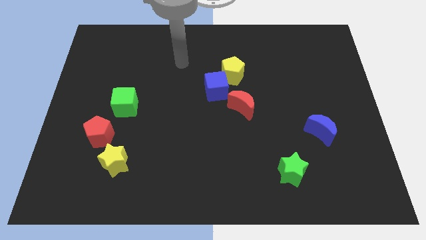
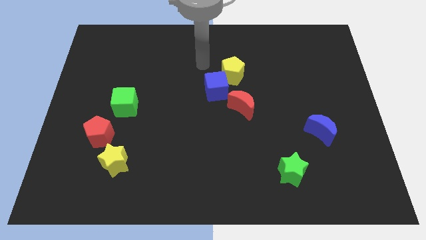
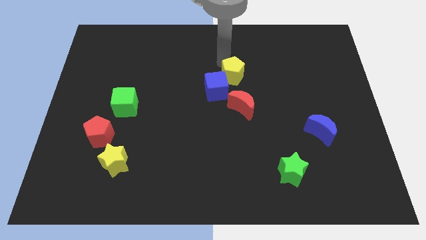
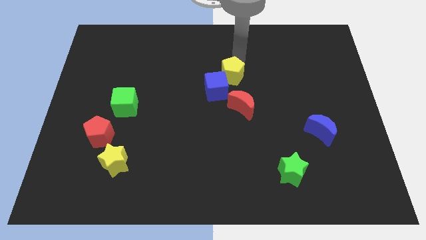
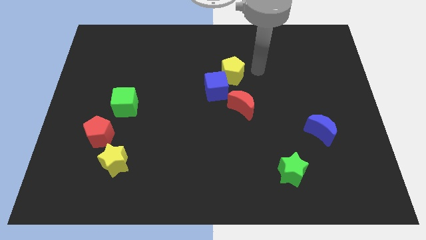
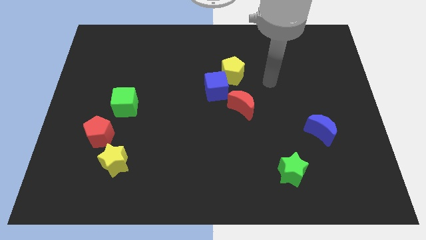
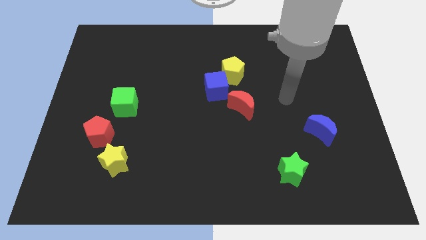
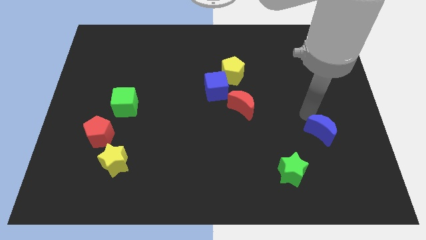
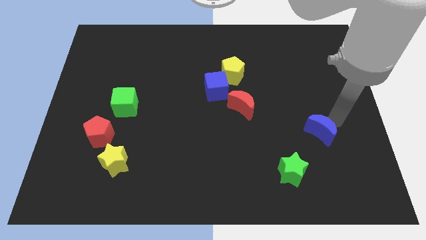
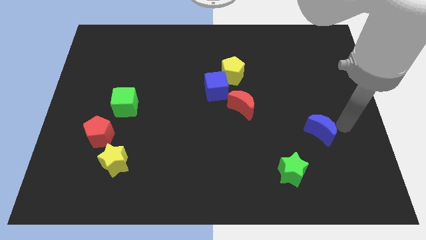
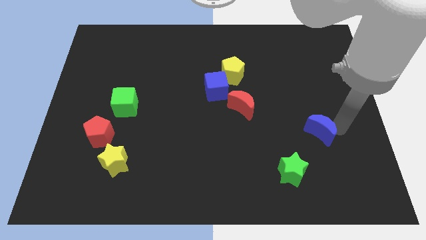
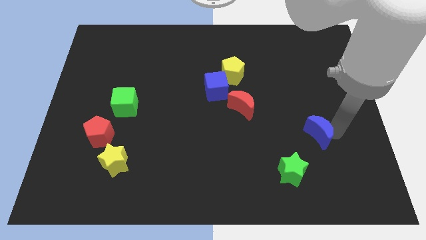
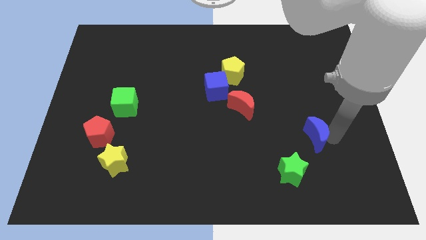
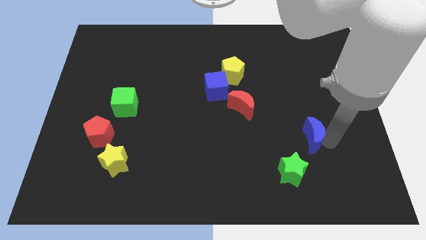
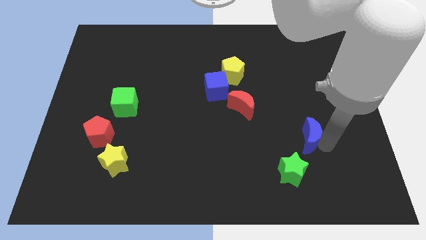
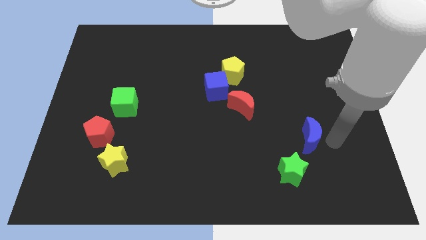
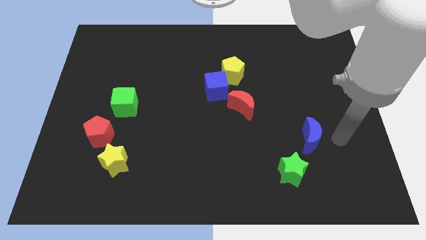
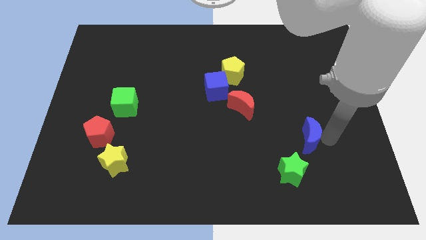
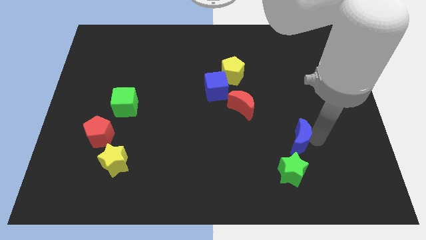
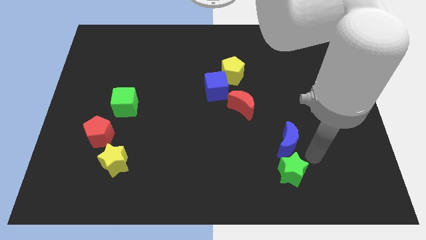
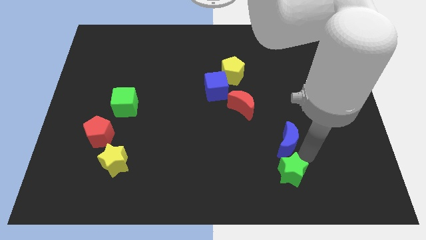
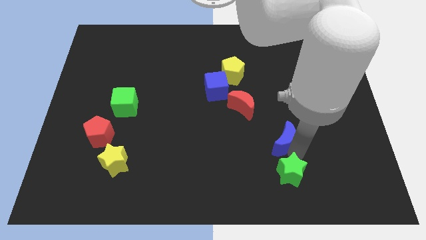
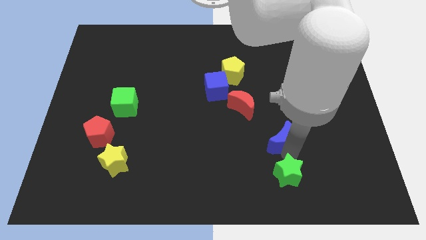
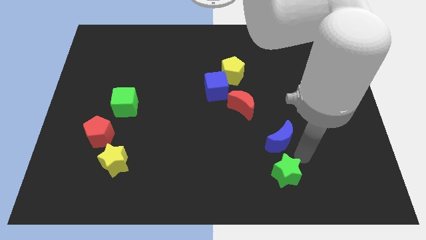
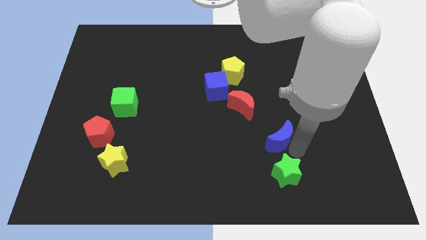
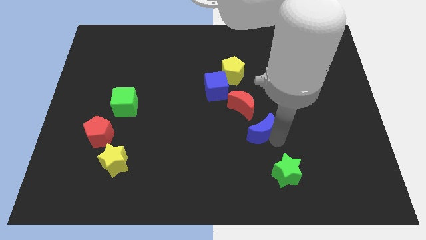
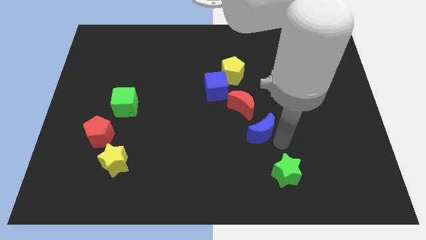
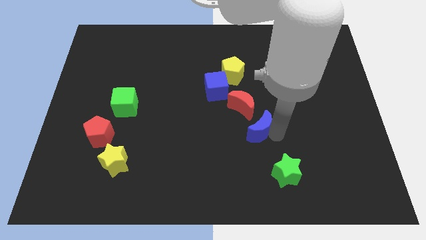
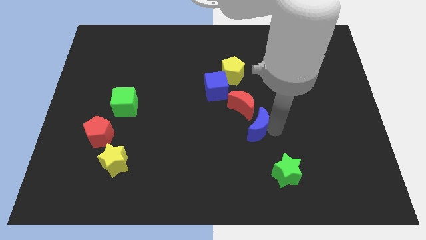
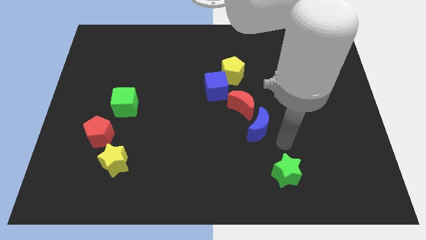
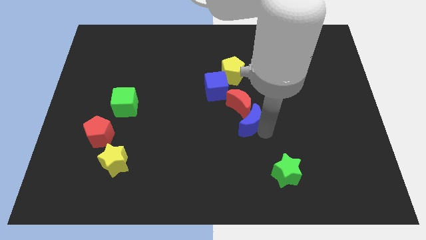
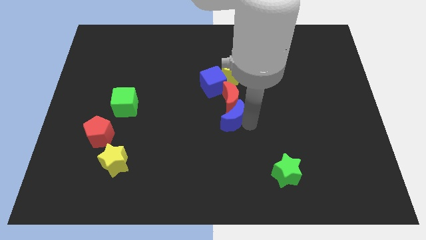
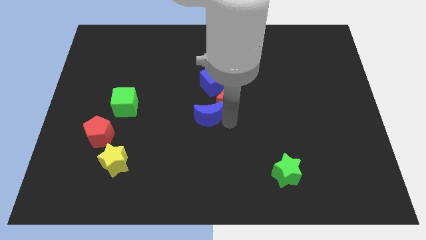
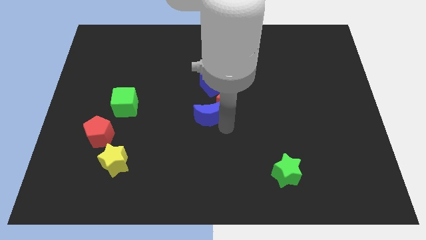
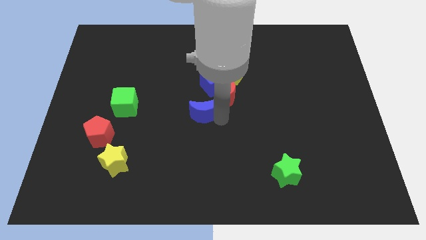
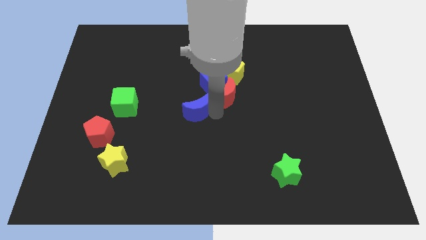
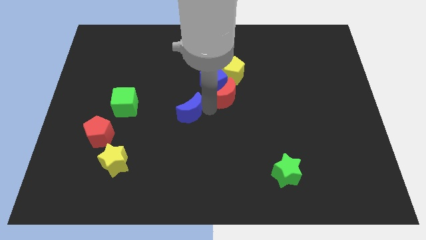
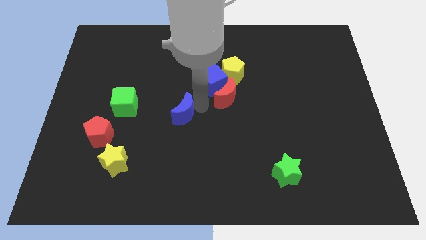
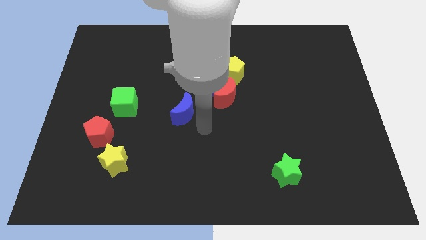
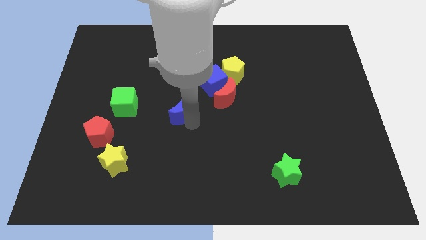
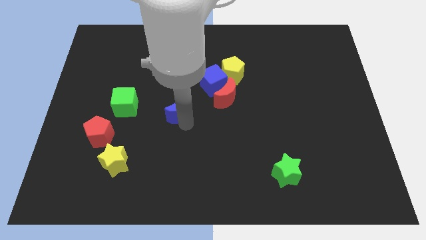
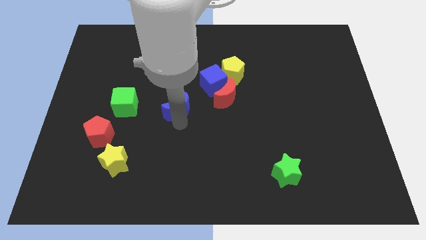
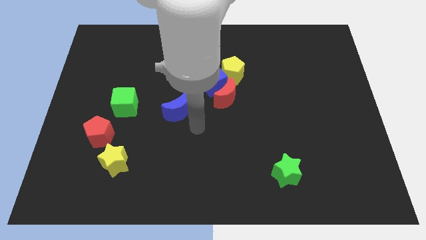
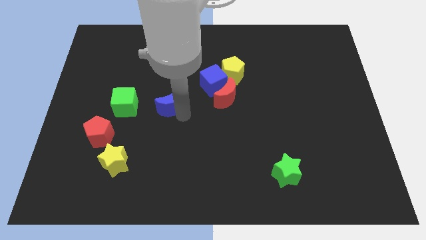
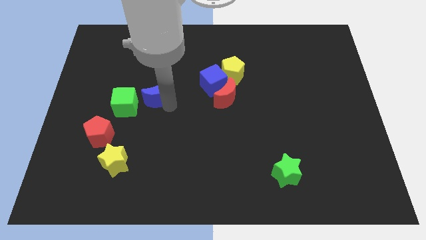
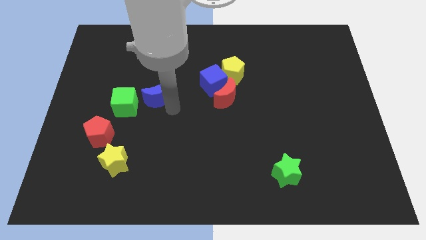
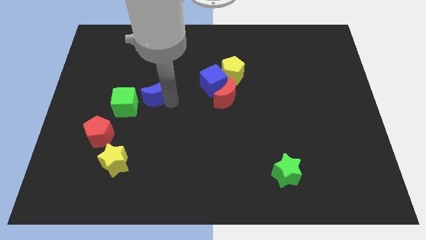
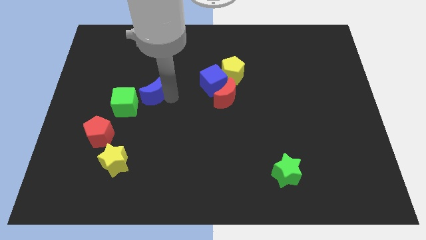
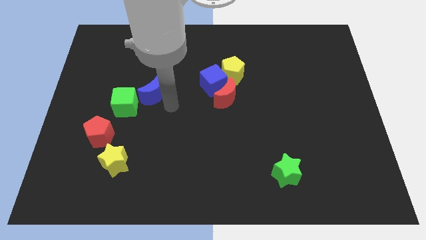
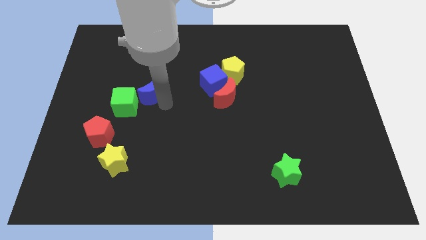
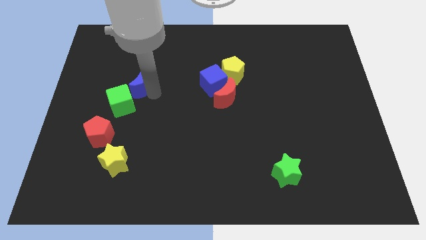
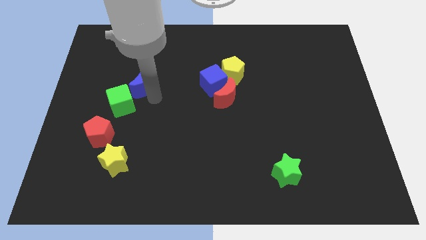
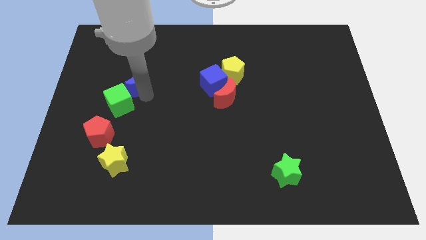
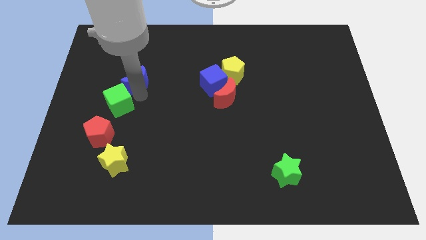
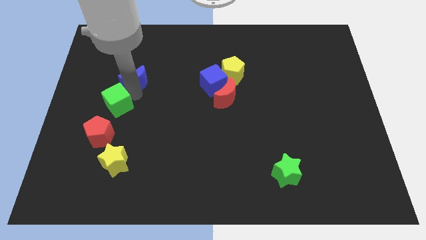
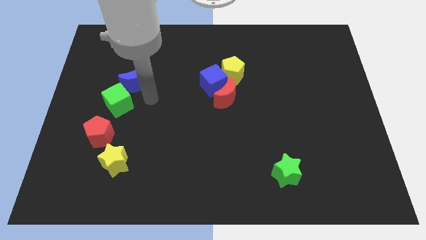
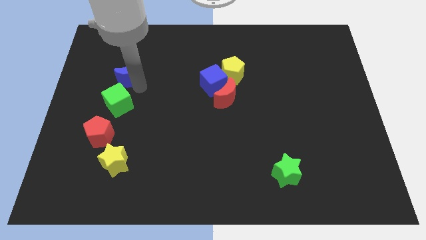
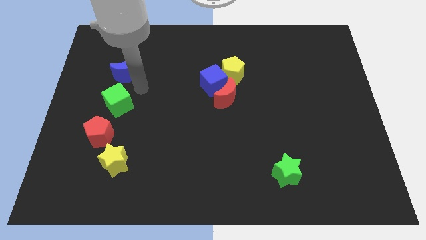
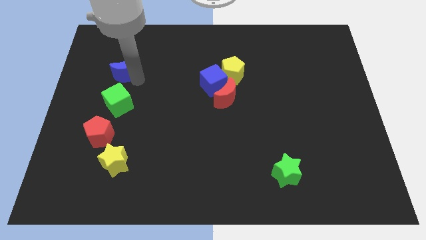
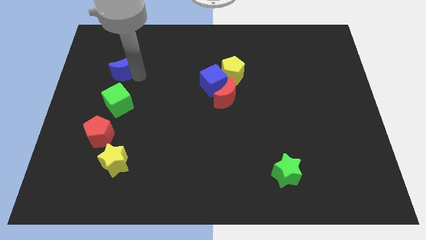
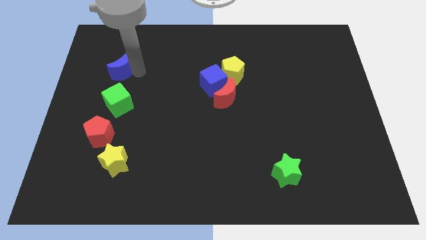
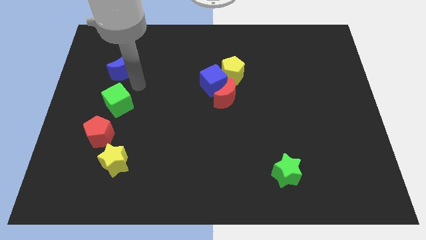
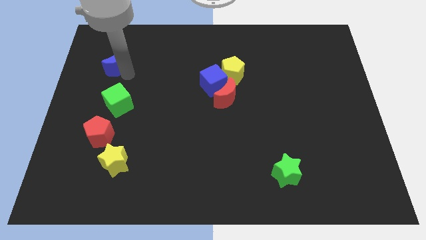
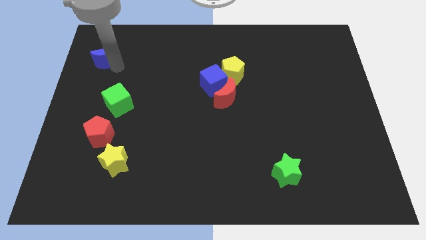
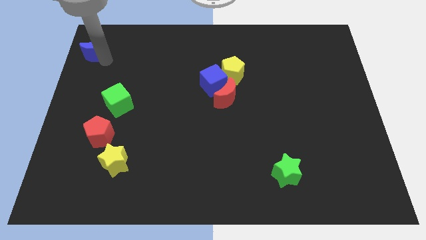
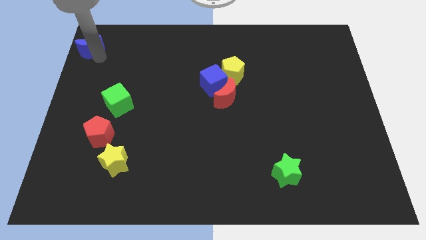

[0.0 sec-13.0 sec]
put the blue moon to the upper left corner

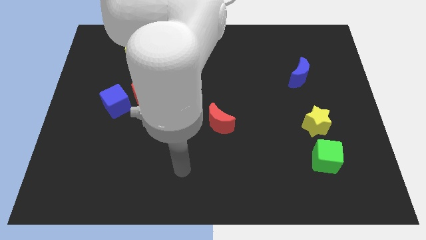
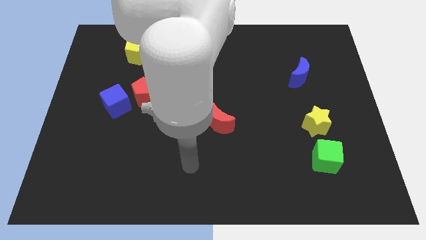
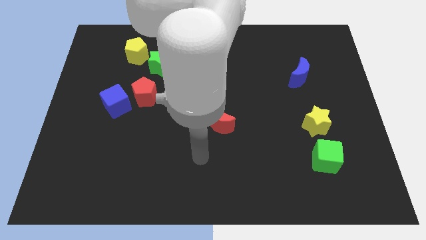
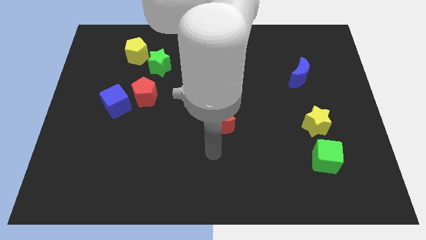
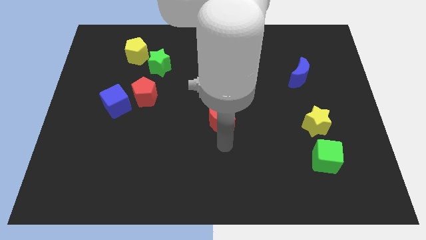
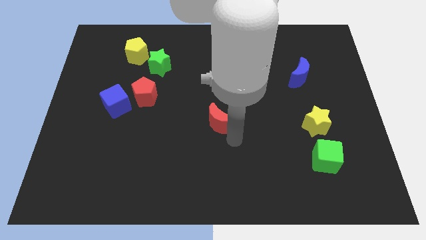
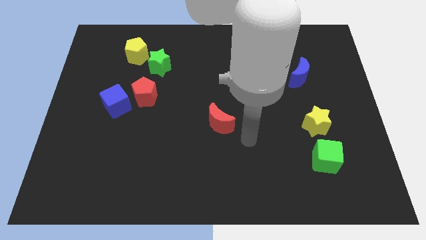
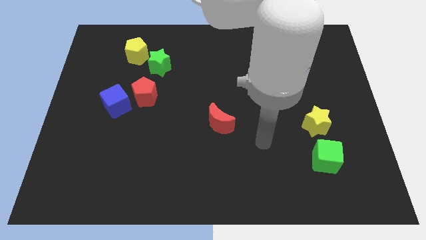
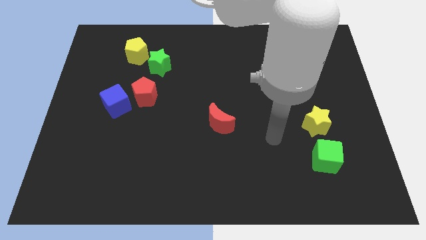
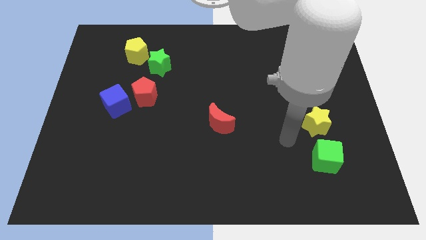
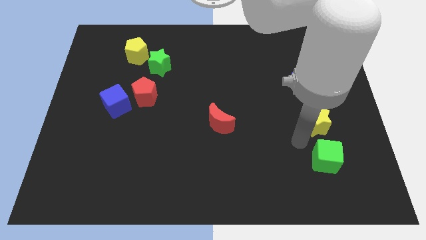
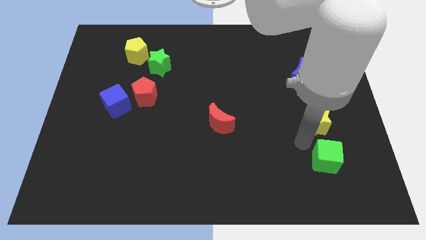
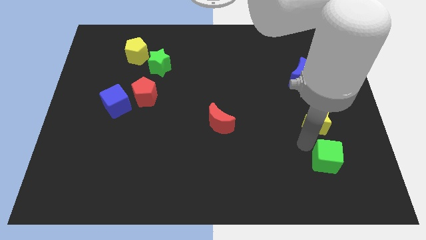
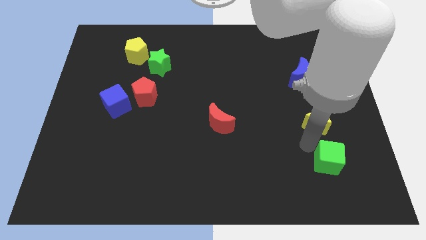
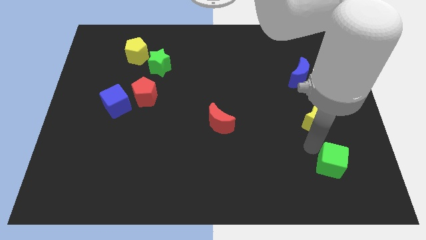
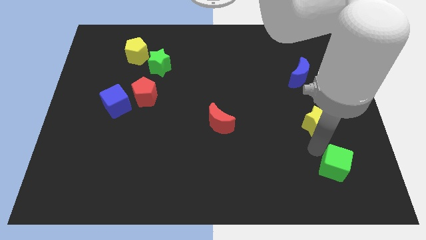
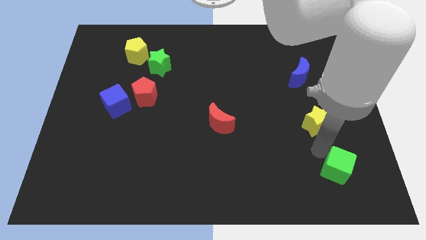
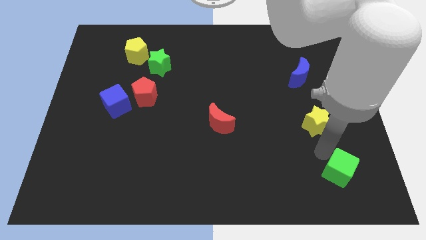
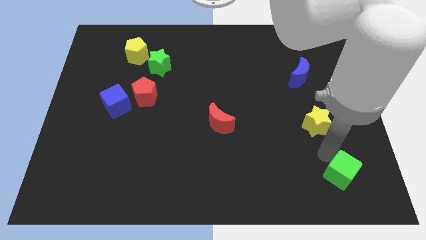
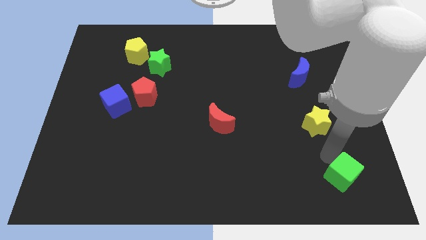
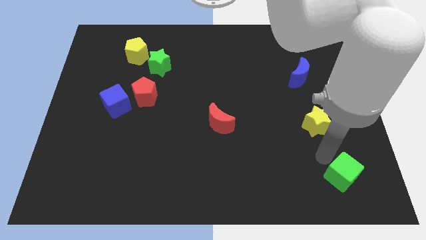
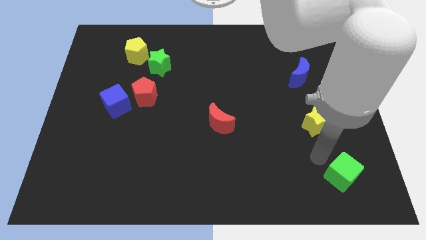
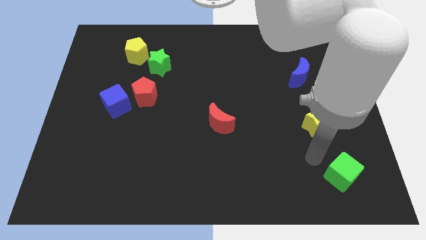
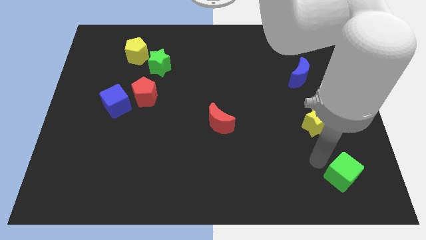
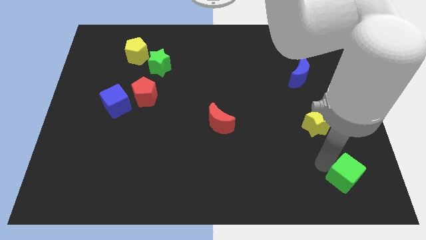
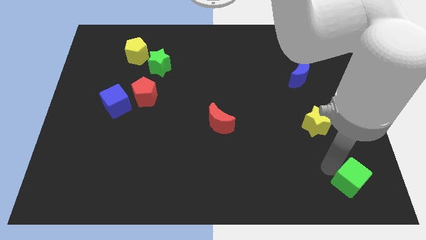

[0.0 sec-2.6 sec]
push the green cube to the bottom right
